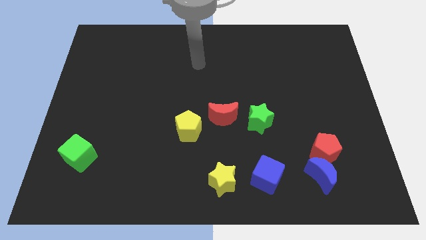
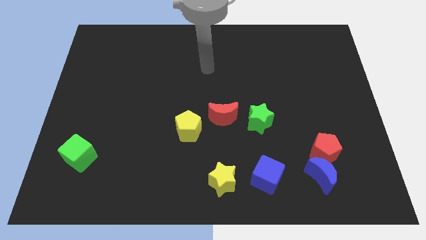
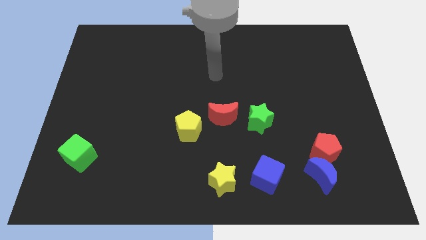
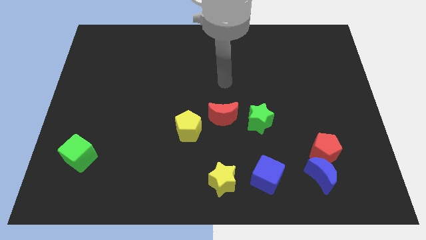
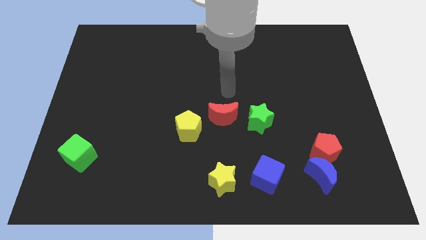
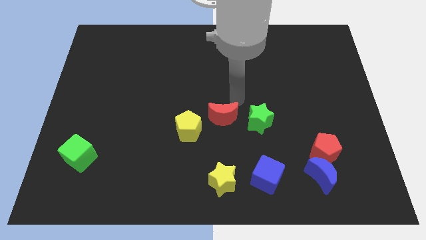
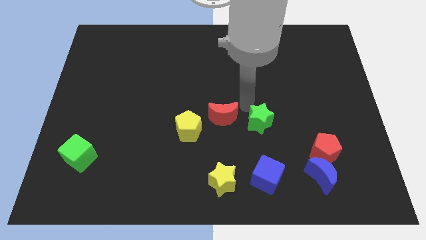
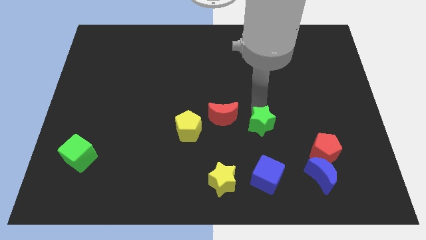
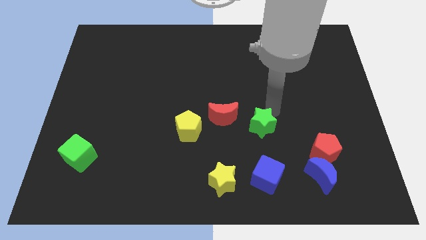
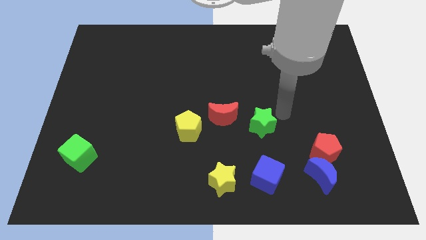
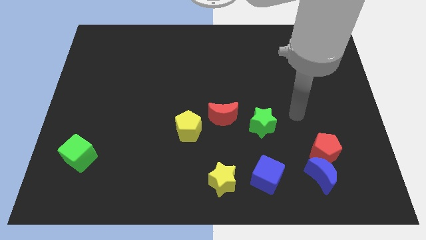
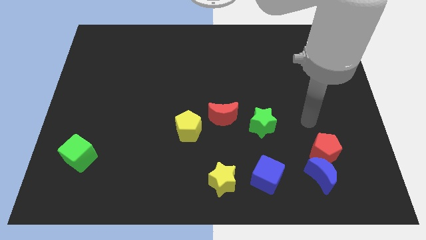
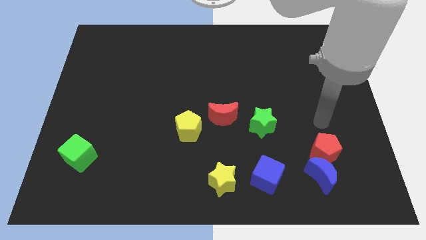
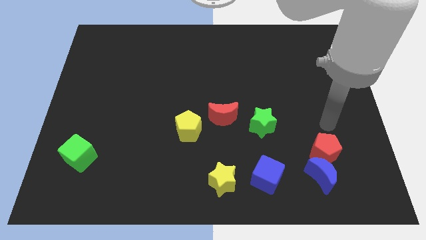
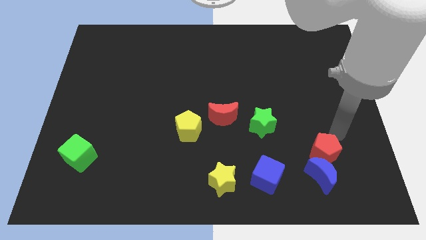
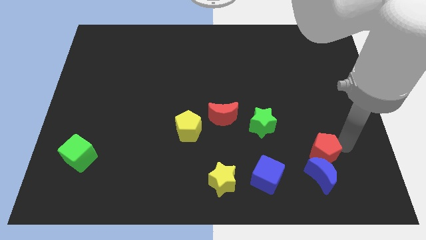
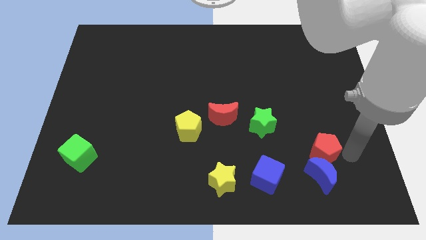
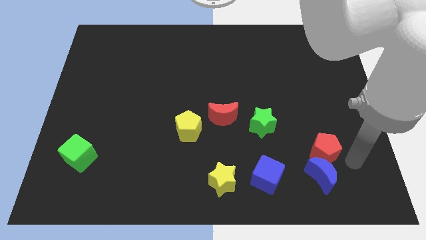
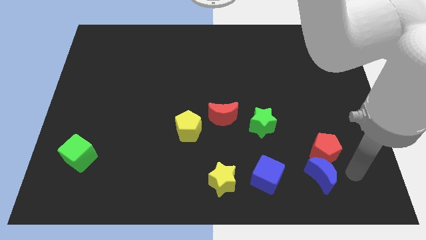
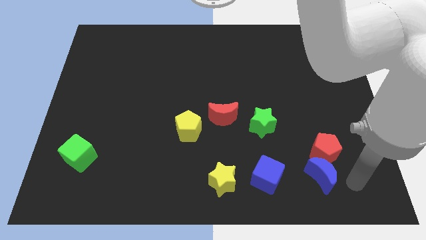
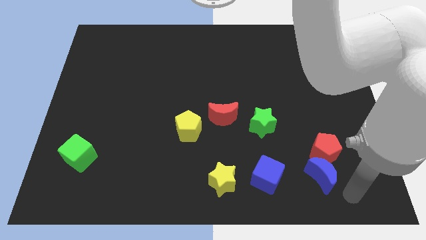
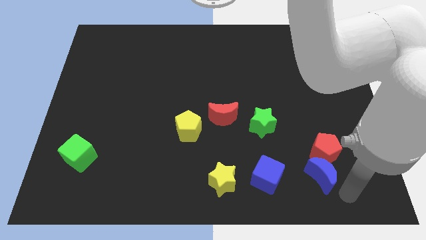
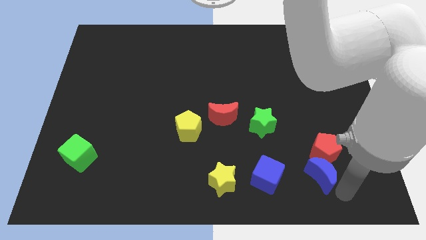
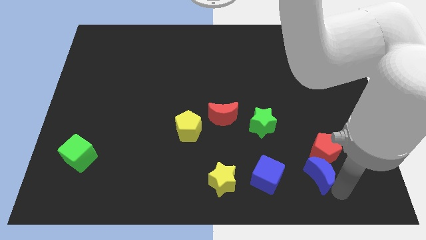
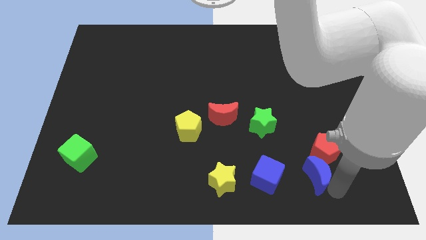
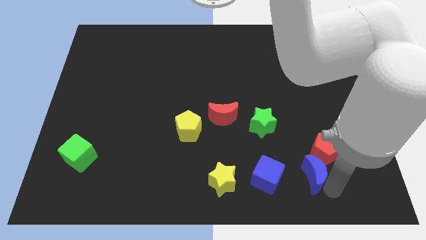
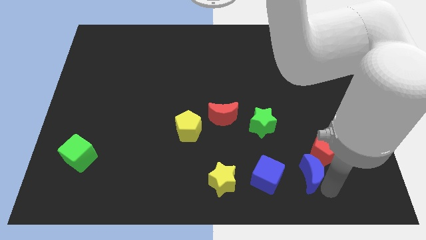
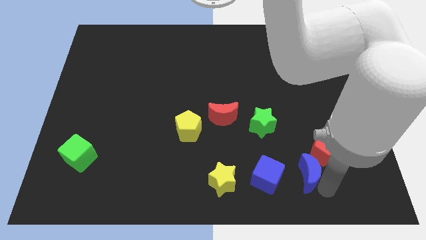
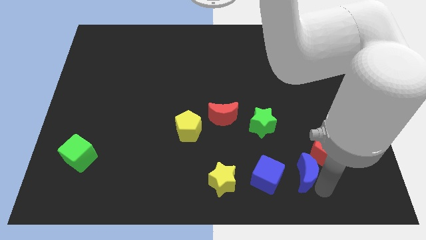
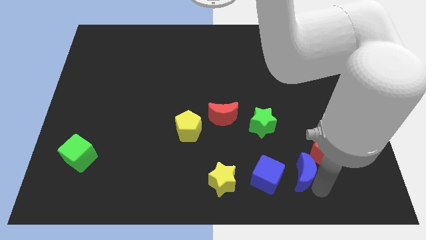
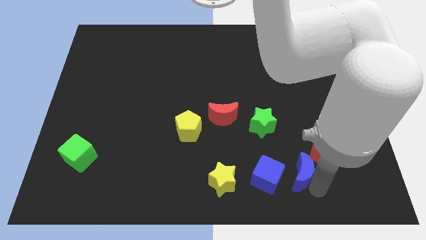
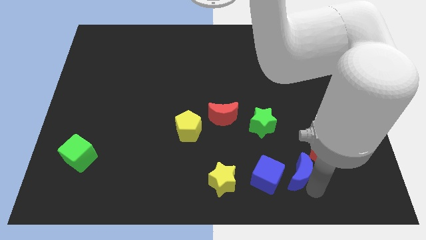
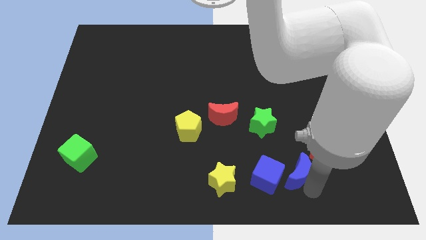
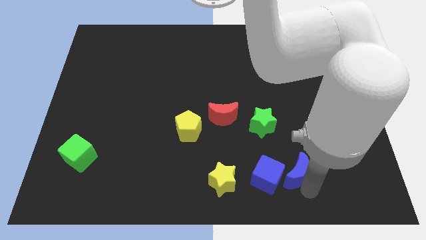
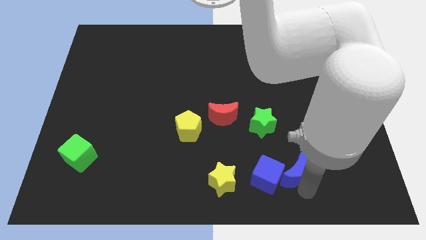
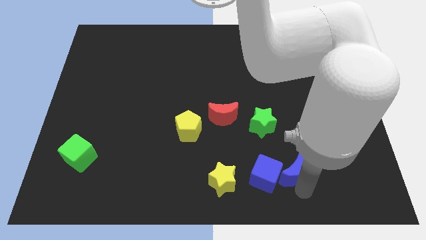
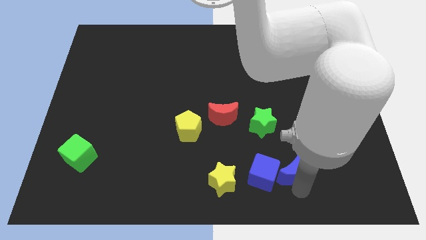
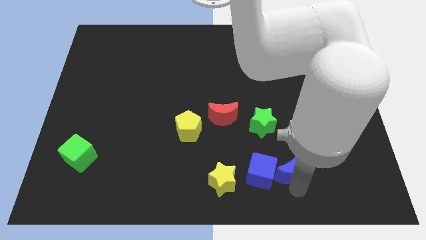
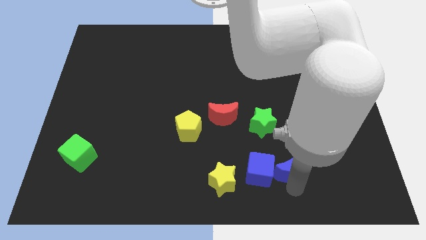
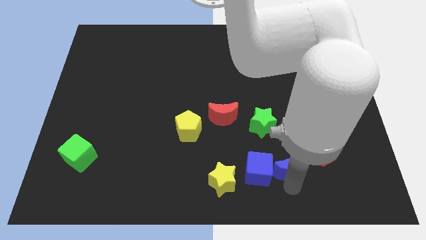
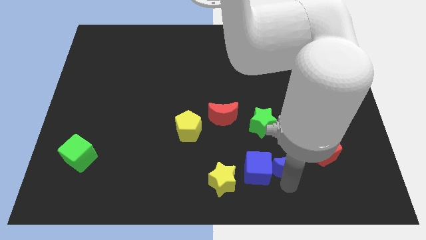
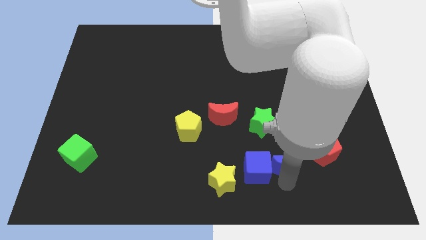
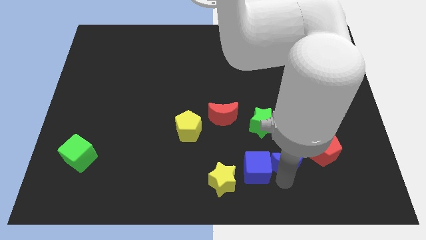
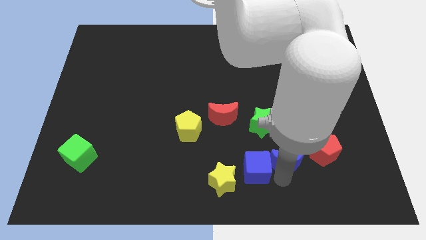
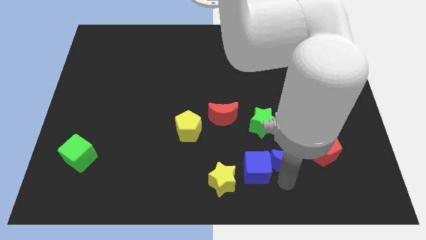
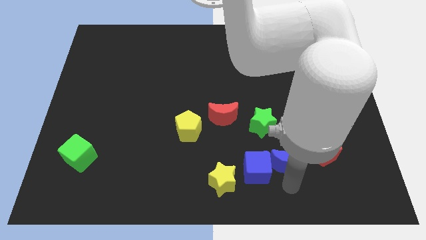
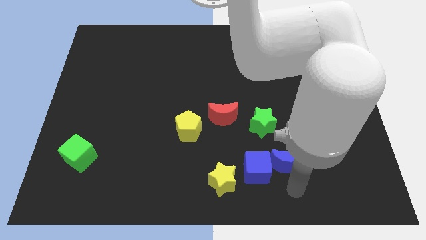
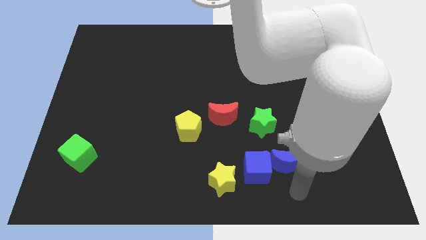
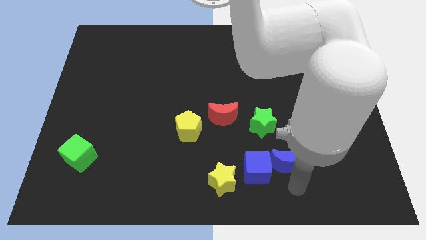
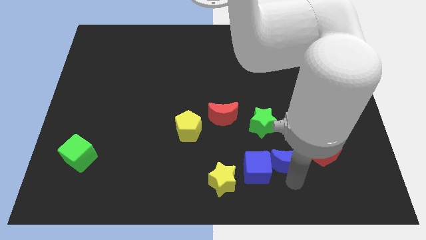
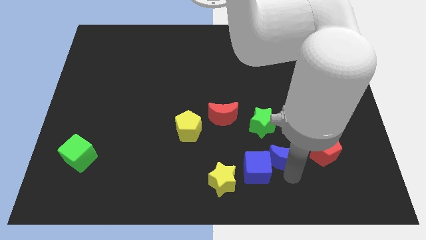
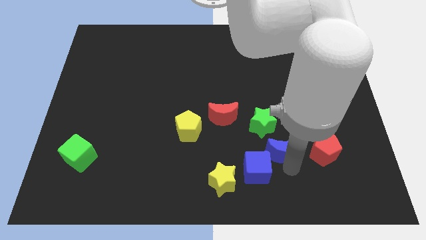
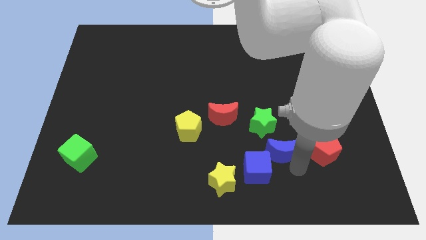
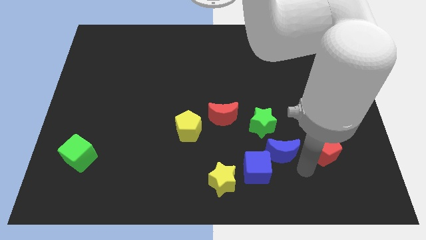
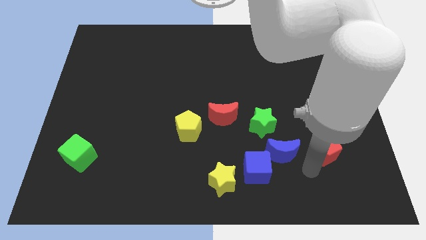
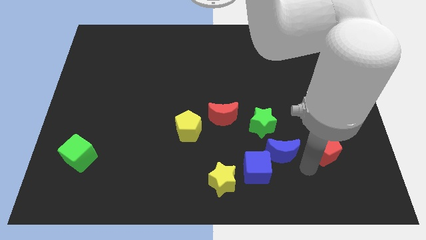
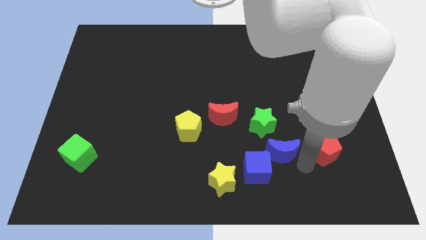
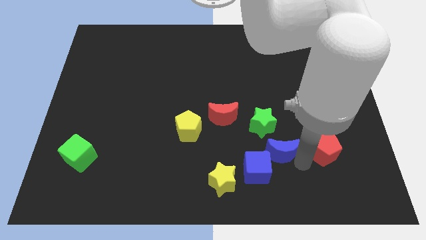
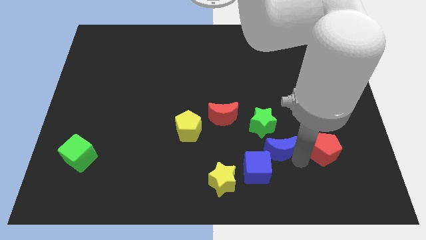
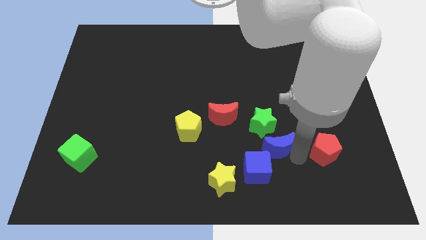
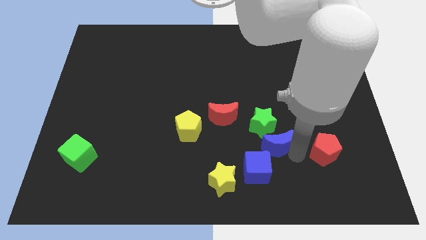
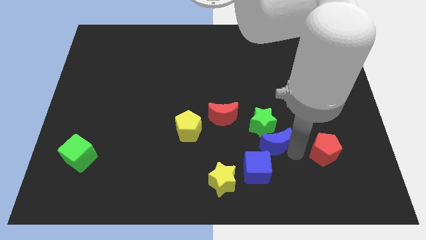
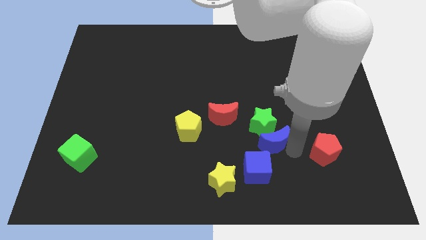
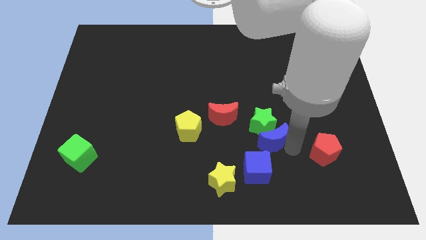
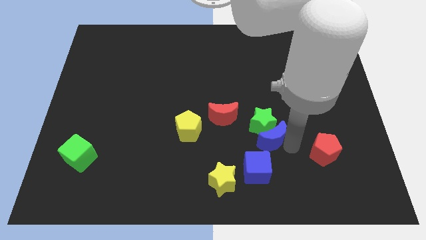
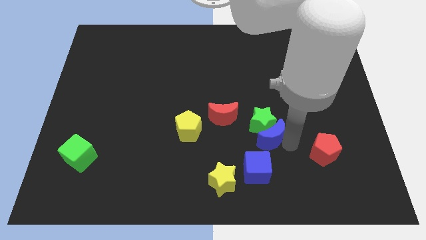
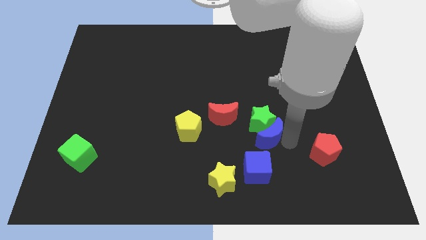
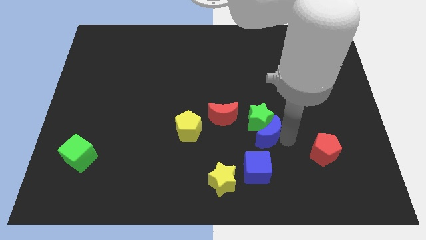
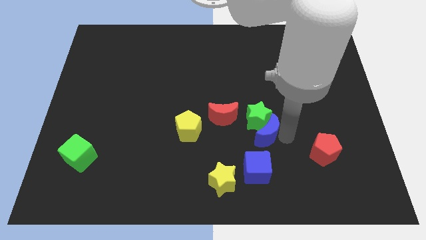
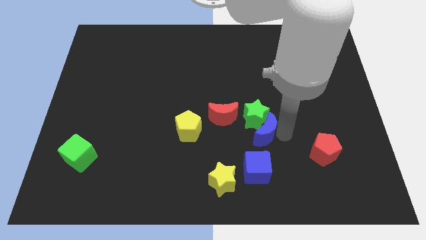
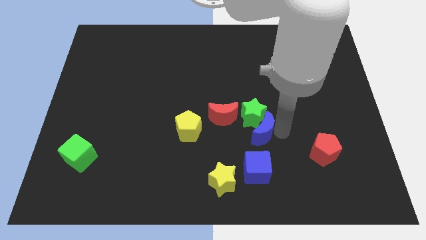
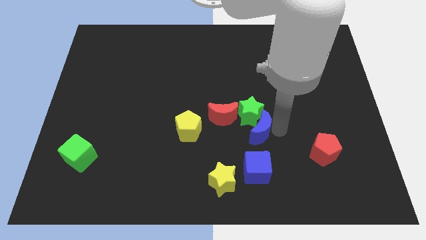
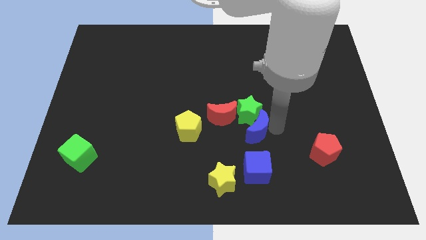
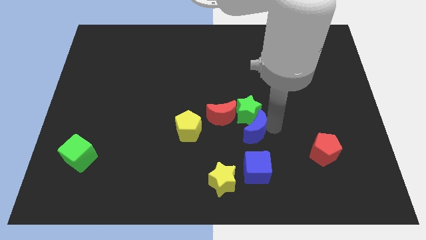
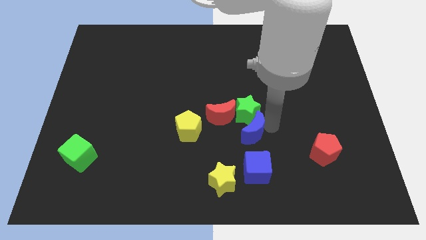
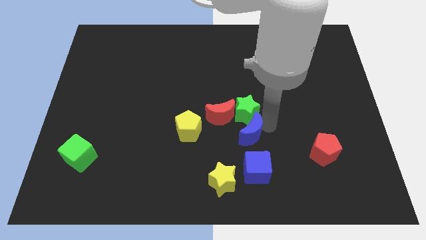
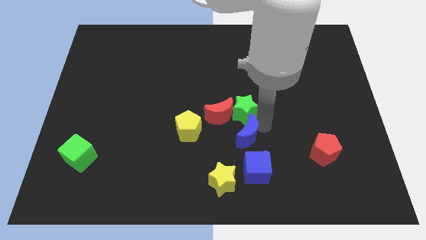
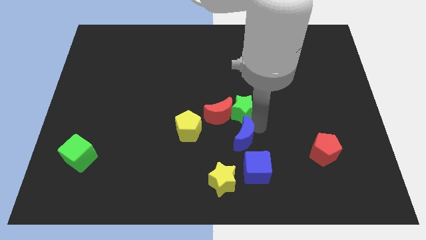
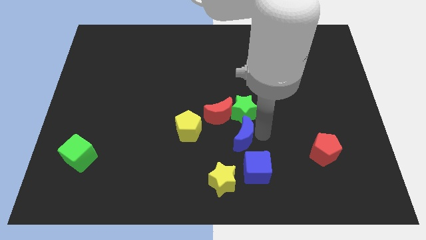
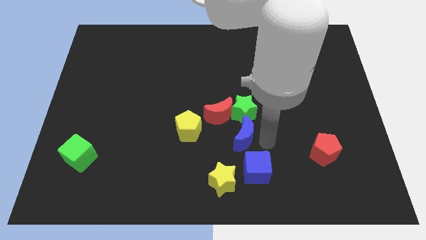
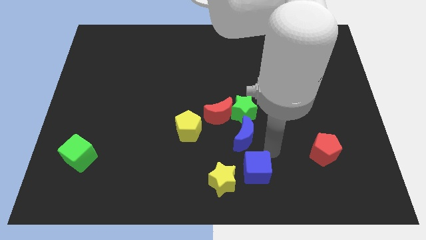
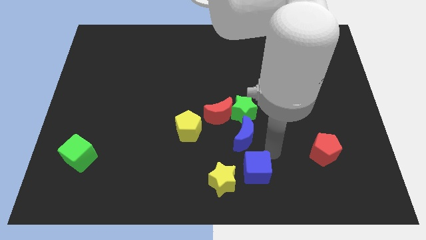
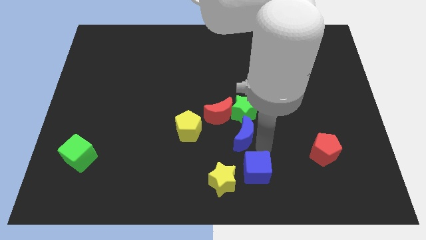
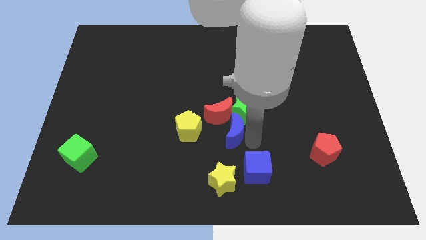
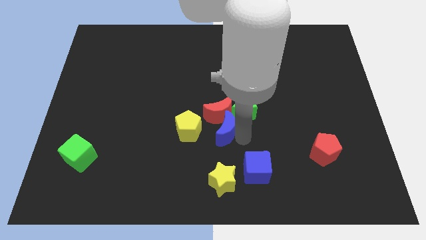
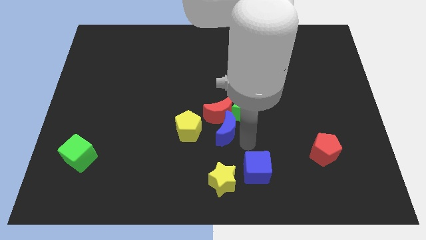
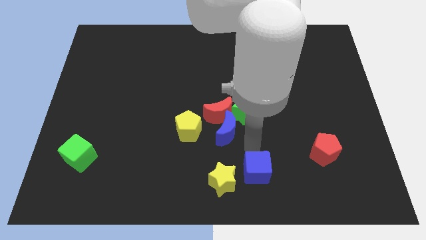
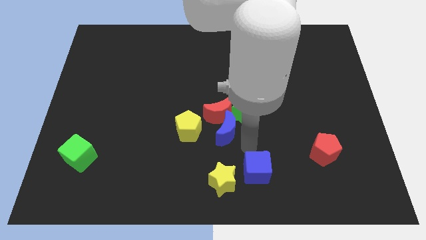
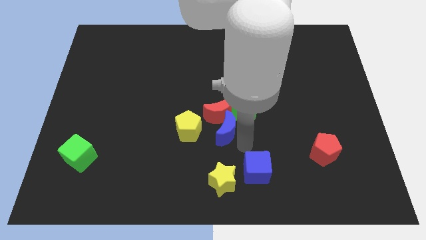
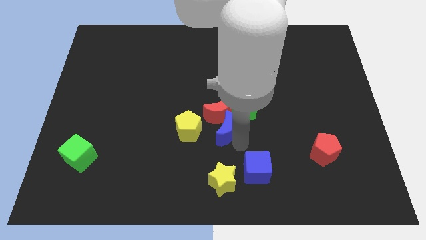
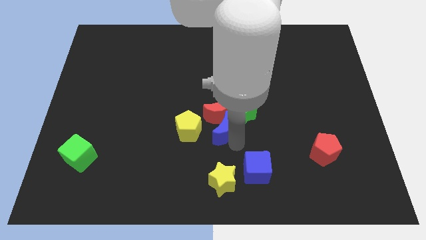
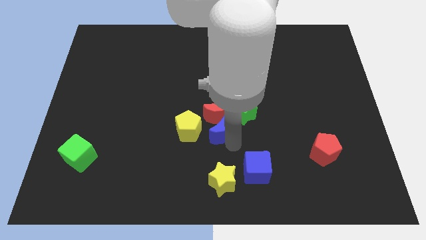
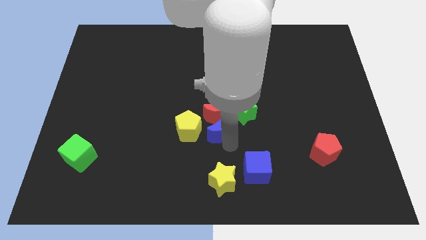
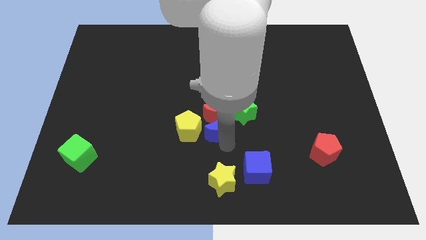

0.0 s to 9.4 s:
put the blue moon just left of the green star
